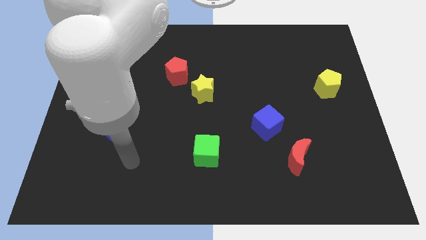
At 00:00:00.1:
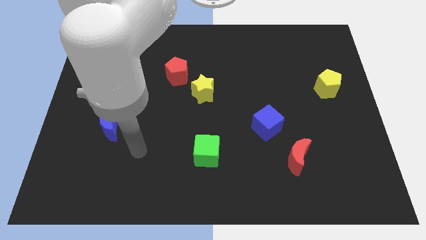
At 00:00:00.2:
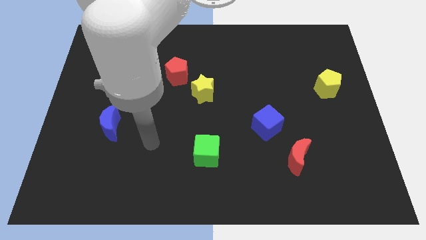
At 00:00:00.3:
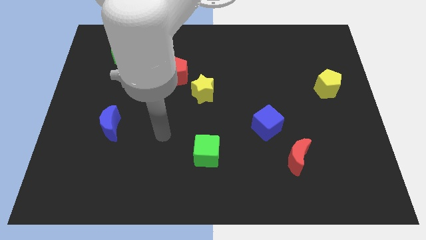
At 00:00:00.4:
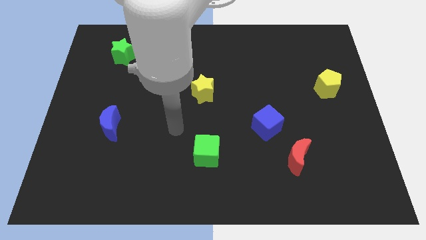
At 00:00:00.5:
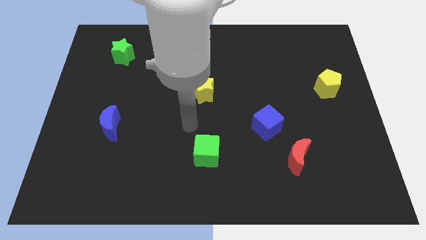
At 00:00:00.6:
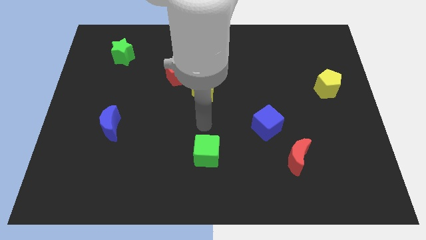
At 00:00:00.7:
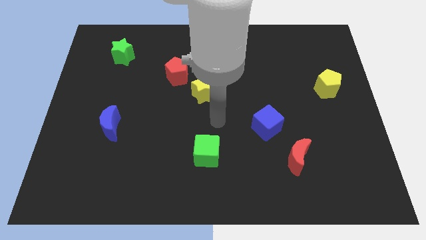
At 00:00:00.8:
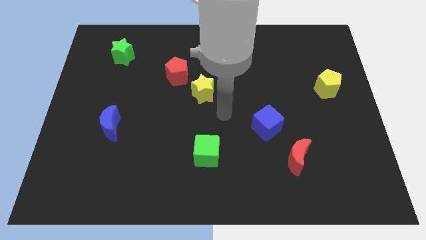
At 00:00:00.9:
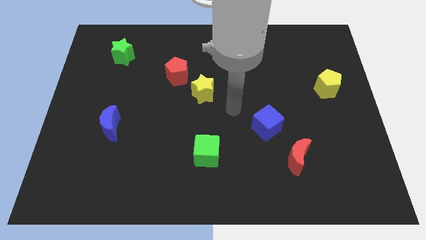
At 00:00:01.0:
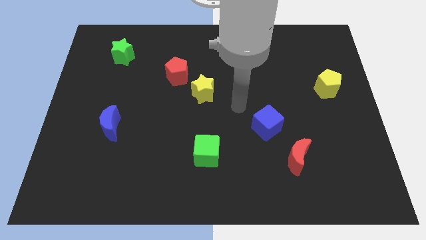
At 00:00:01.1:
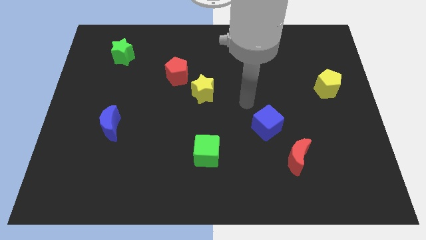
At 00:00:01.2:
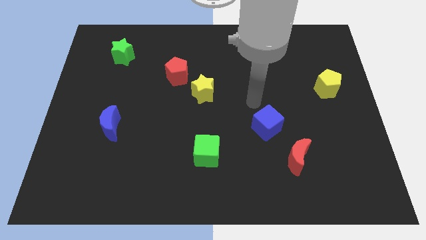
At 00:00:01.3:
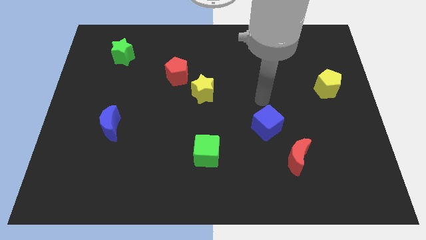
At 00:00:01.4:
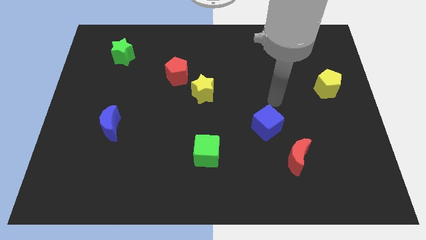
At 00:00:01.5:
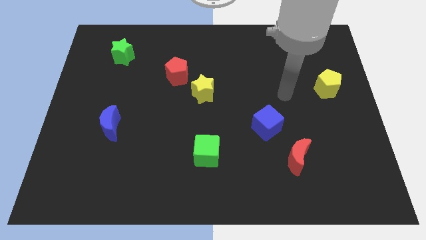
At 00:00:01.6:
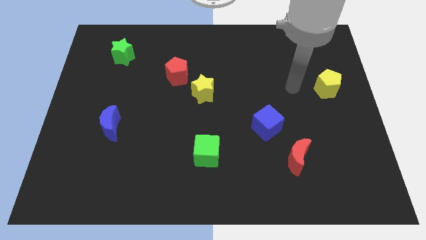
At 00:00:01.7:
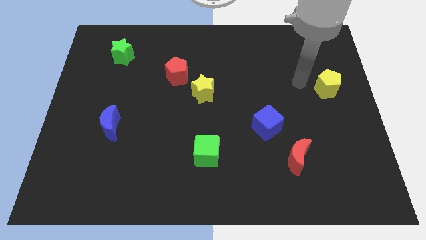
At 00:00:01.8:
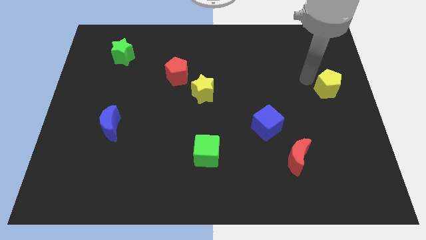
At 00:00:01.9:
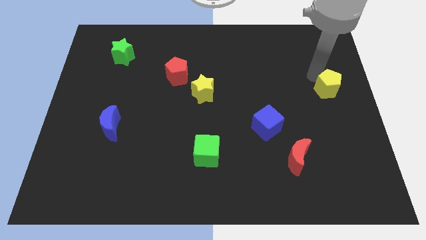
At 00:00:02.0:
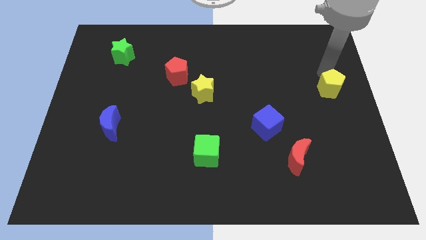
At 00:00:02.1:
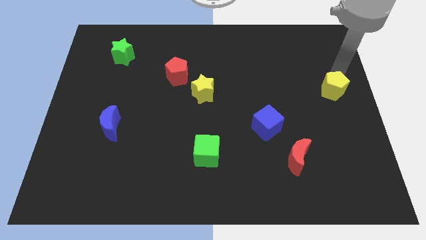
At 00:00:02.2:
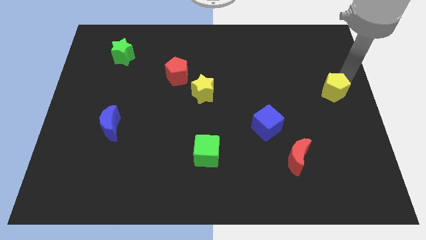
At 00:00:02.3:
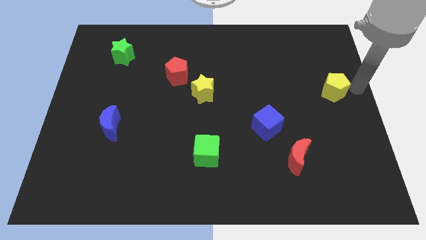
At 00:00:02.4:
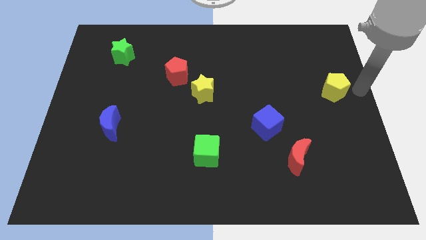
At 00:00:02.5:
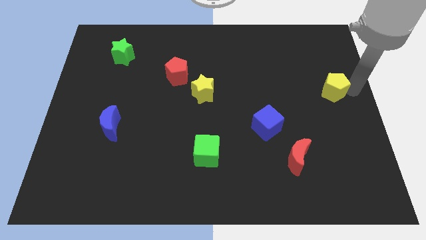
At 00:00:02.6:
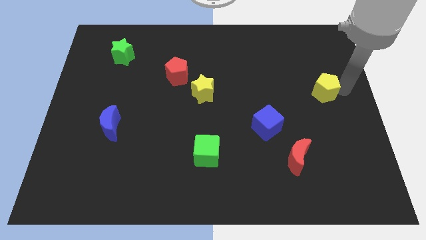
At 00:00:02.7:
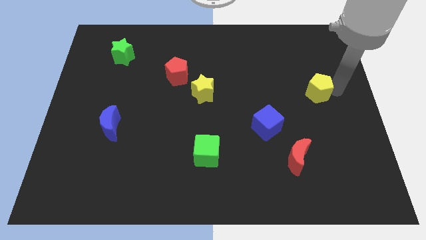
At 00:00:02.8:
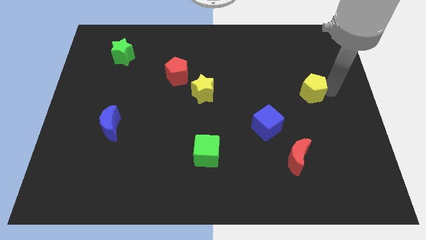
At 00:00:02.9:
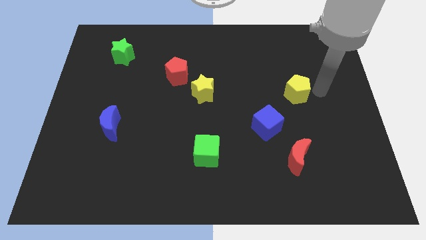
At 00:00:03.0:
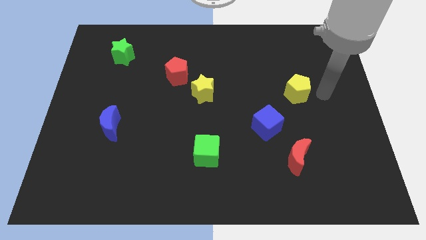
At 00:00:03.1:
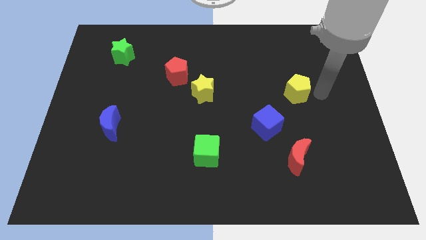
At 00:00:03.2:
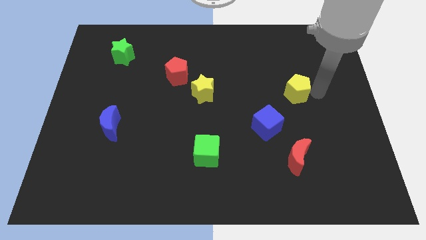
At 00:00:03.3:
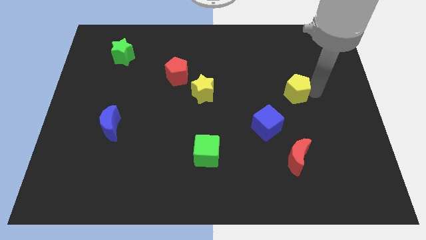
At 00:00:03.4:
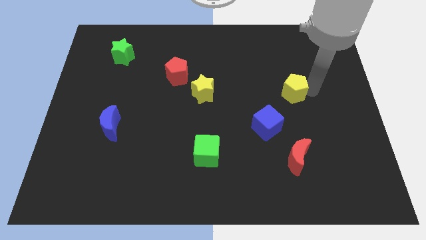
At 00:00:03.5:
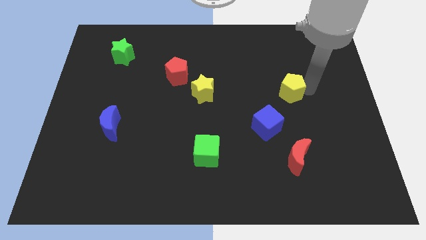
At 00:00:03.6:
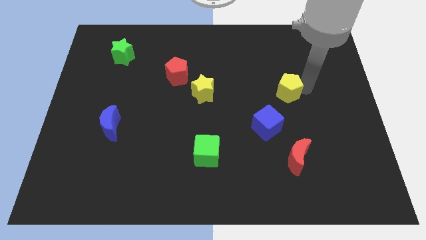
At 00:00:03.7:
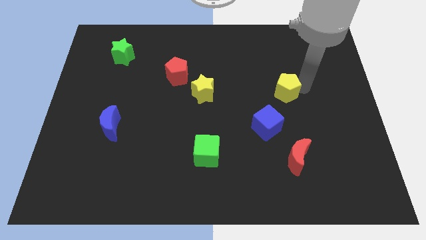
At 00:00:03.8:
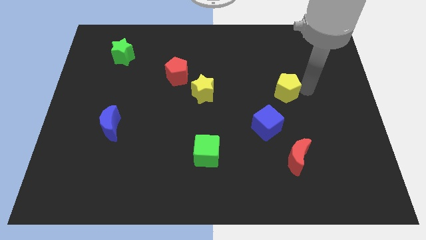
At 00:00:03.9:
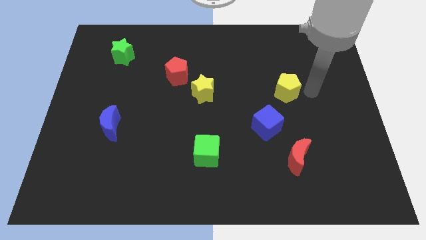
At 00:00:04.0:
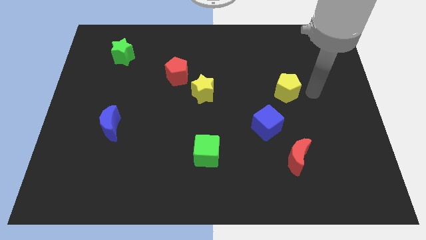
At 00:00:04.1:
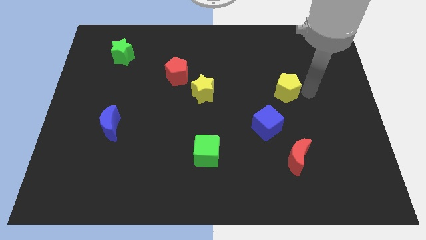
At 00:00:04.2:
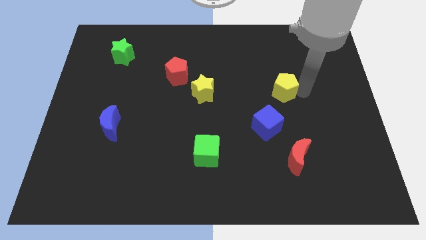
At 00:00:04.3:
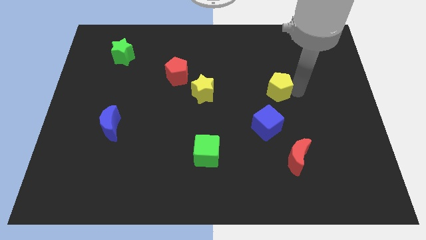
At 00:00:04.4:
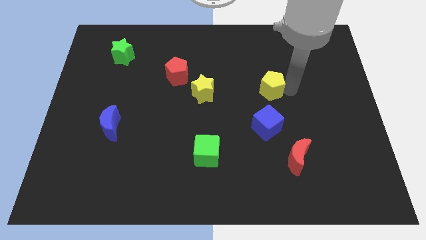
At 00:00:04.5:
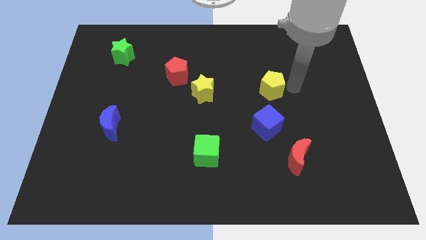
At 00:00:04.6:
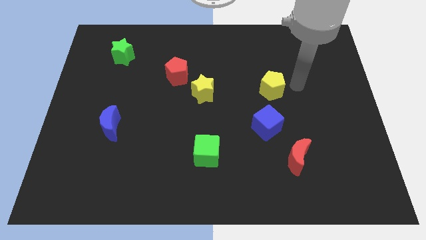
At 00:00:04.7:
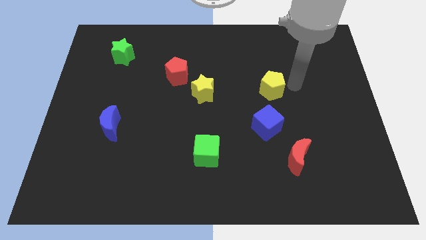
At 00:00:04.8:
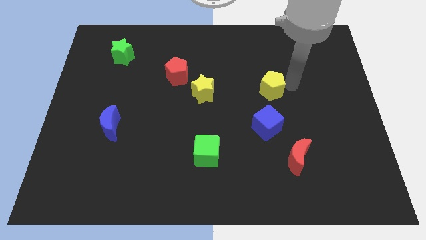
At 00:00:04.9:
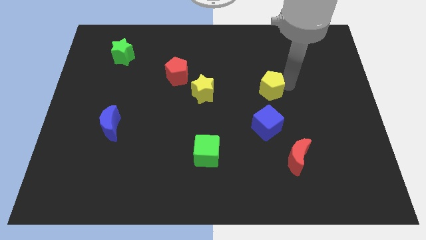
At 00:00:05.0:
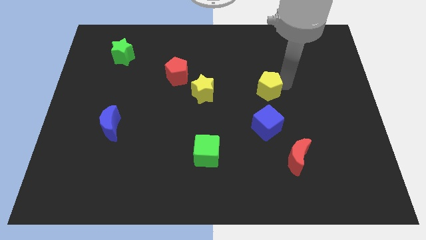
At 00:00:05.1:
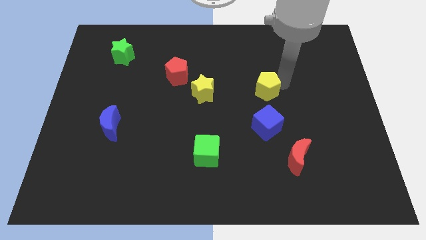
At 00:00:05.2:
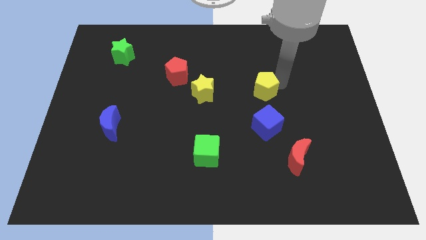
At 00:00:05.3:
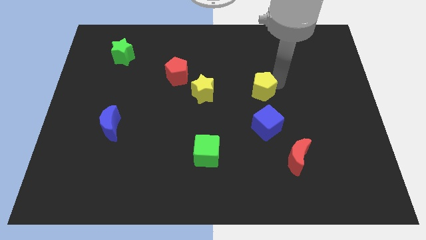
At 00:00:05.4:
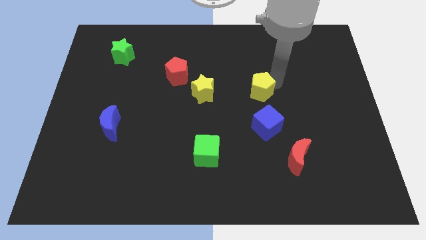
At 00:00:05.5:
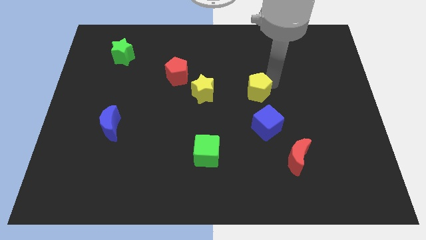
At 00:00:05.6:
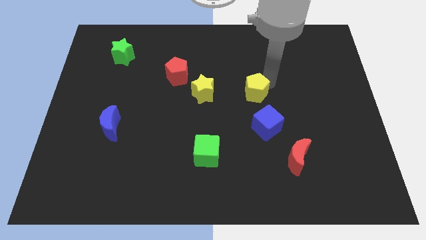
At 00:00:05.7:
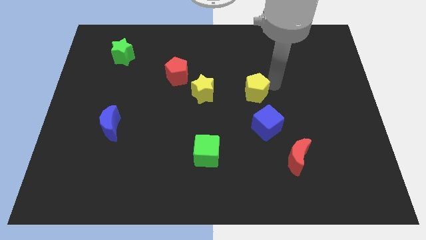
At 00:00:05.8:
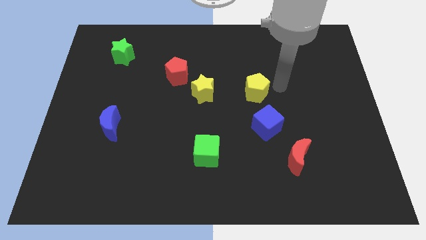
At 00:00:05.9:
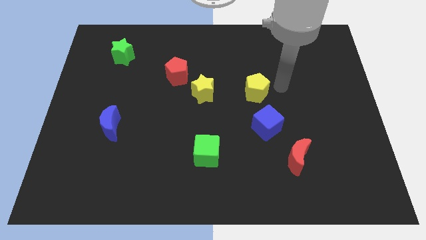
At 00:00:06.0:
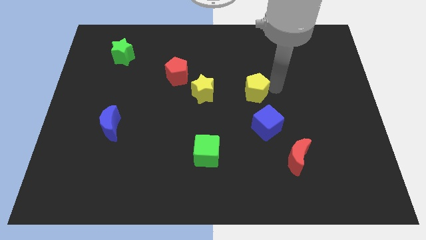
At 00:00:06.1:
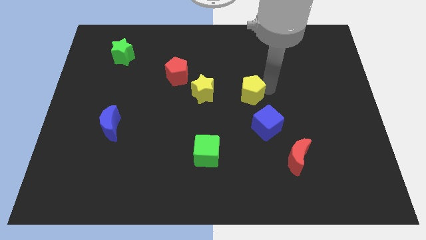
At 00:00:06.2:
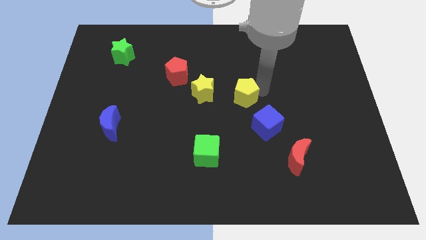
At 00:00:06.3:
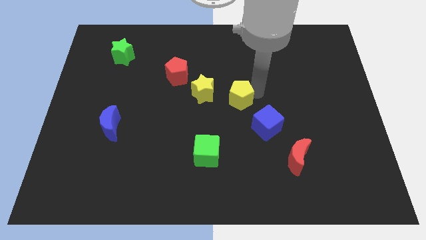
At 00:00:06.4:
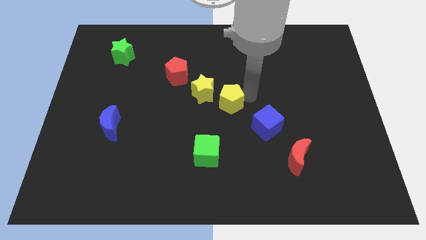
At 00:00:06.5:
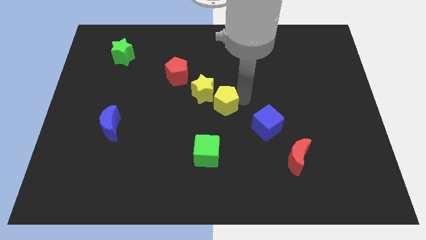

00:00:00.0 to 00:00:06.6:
put the yellow pentagon next to the yellow star
